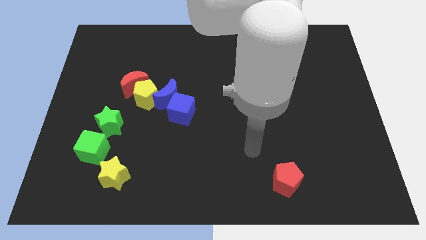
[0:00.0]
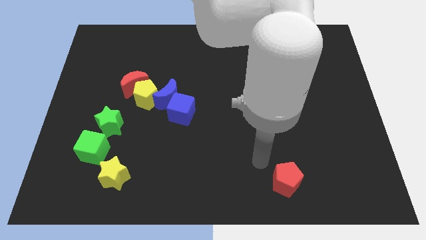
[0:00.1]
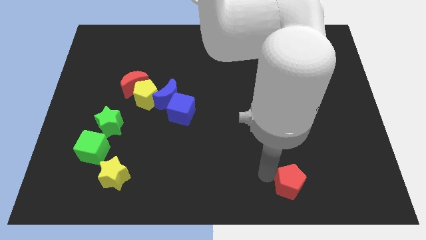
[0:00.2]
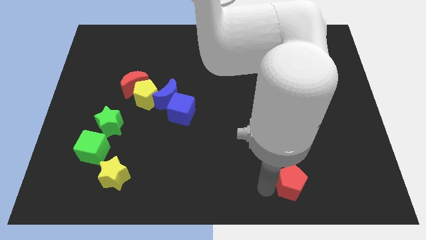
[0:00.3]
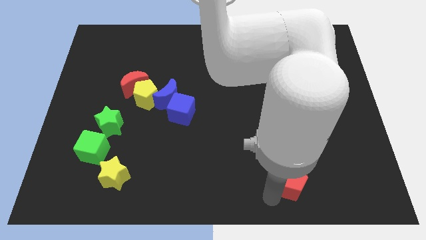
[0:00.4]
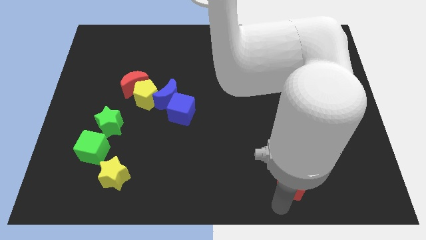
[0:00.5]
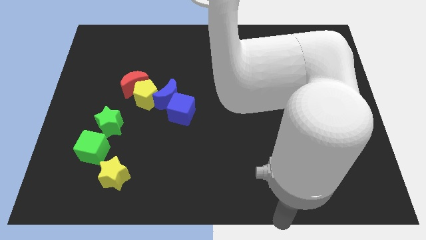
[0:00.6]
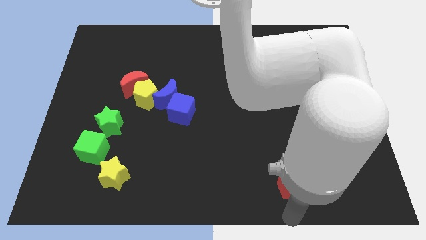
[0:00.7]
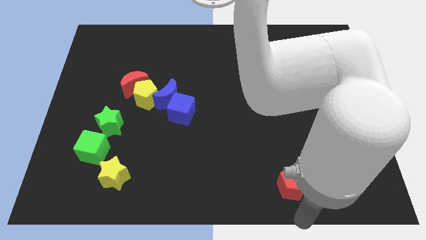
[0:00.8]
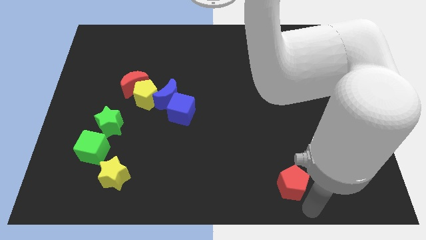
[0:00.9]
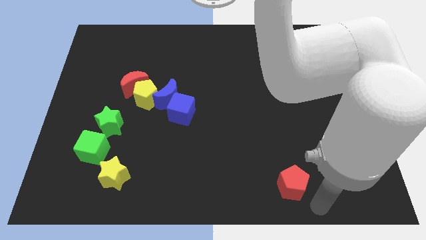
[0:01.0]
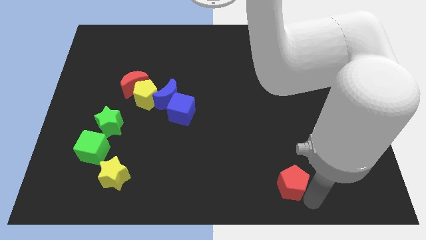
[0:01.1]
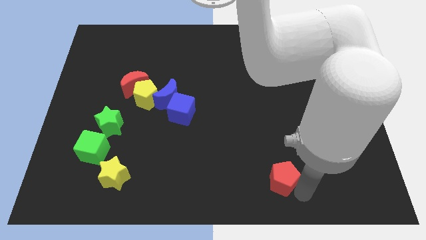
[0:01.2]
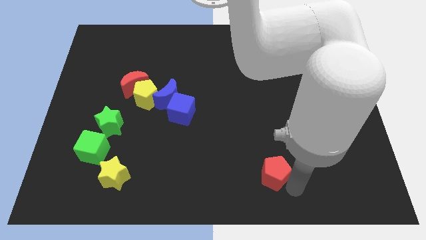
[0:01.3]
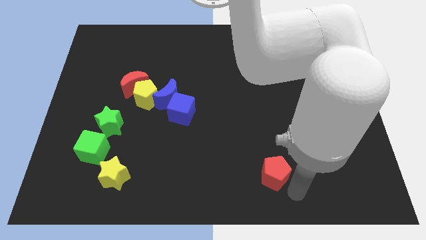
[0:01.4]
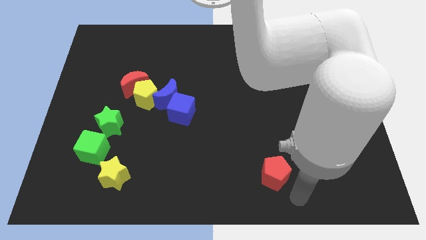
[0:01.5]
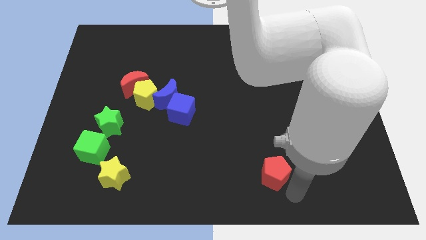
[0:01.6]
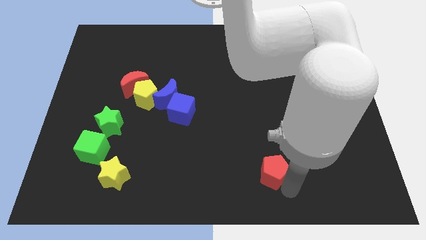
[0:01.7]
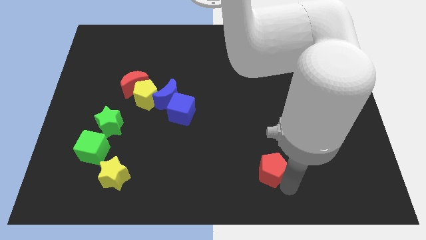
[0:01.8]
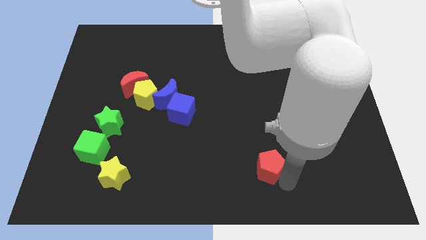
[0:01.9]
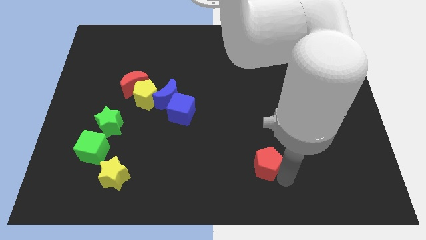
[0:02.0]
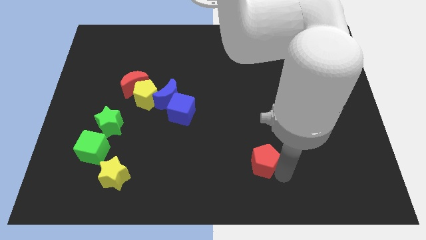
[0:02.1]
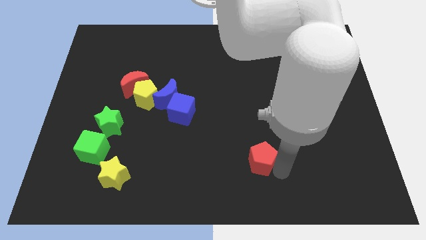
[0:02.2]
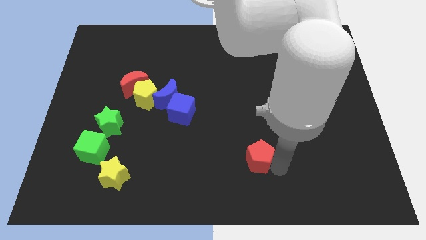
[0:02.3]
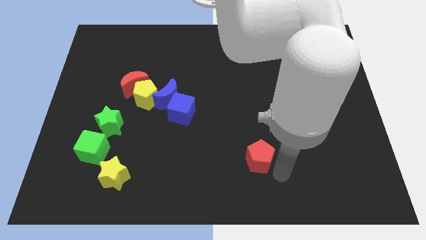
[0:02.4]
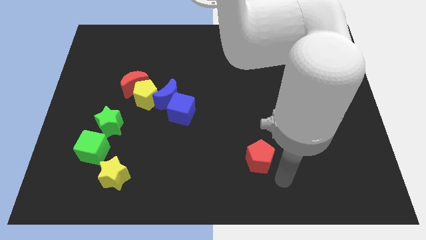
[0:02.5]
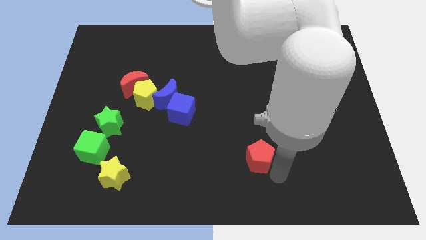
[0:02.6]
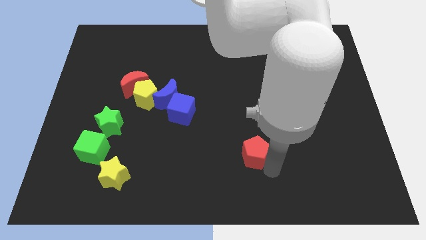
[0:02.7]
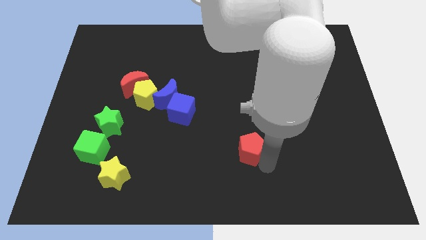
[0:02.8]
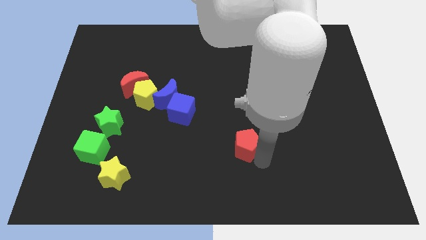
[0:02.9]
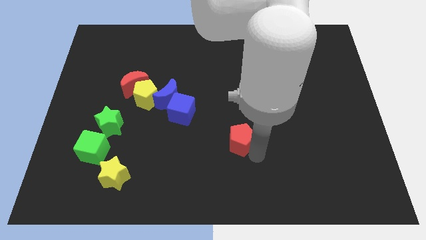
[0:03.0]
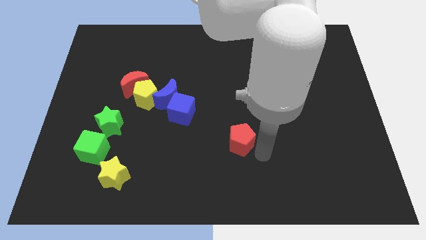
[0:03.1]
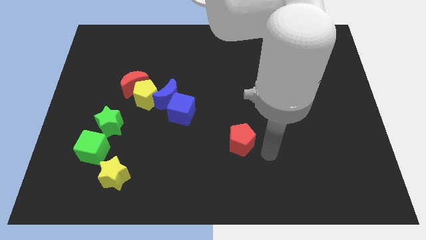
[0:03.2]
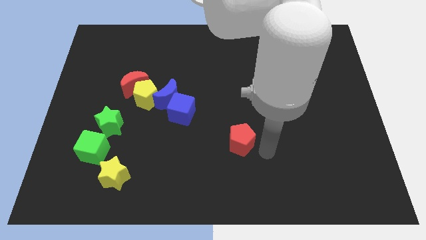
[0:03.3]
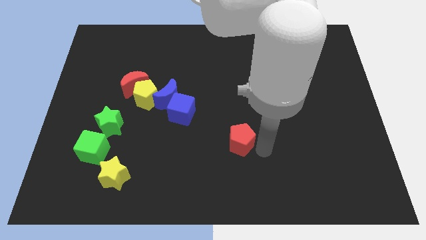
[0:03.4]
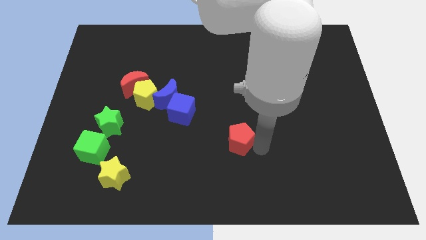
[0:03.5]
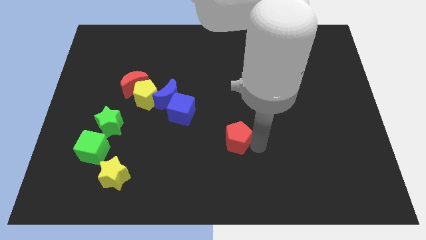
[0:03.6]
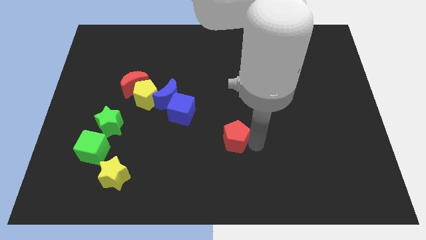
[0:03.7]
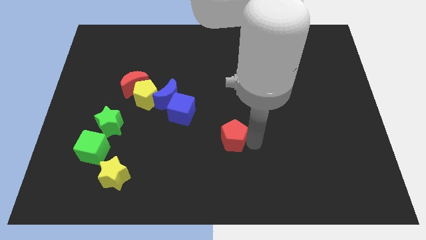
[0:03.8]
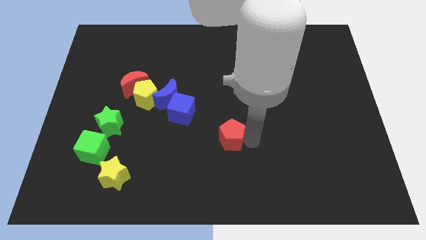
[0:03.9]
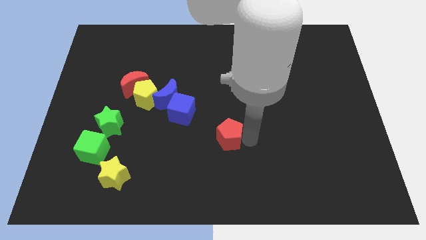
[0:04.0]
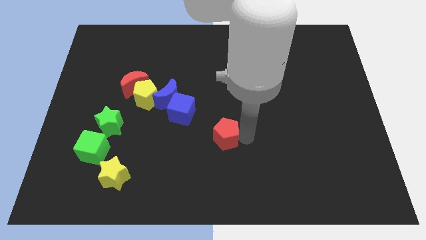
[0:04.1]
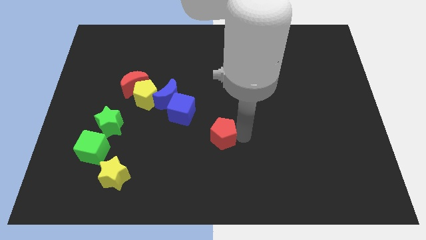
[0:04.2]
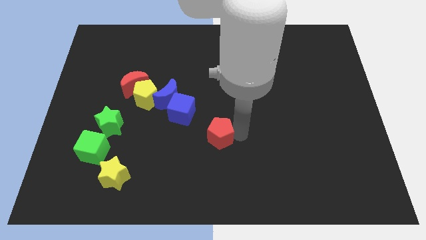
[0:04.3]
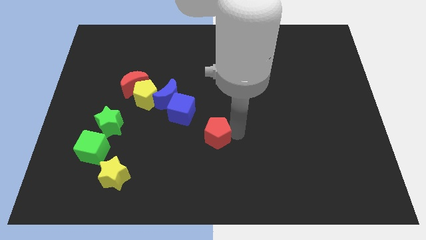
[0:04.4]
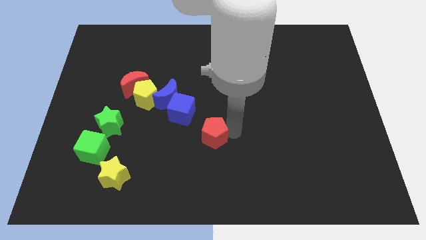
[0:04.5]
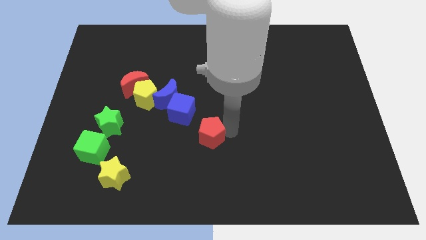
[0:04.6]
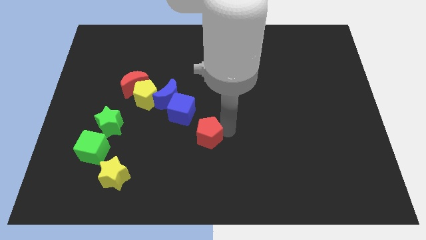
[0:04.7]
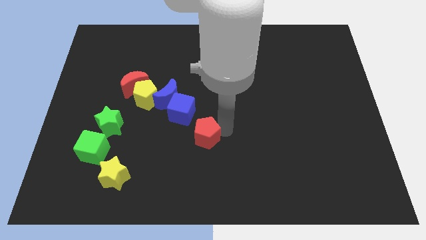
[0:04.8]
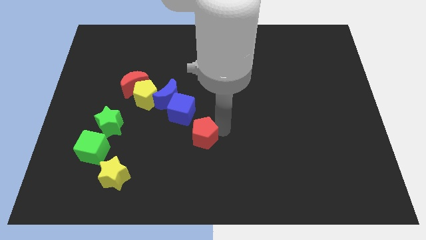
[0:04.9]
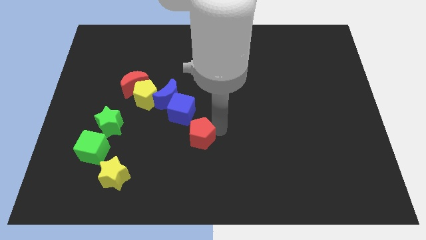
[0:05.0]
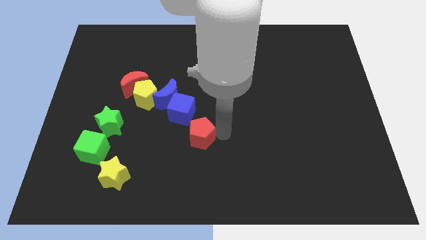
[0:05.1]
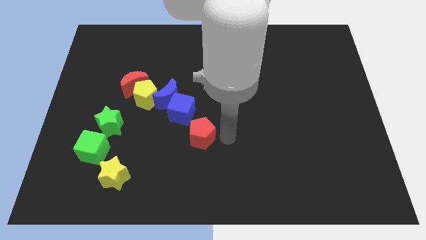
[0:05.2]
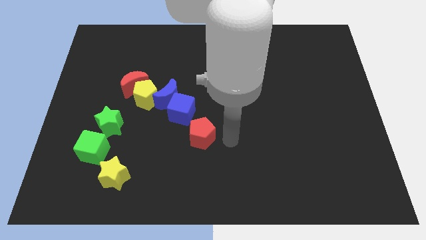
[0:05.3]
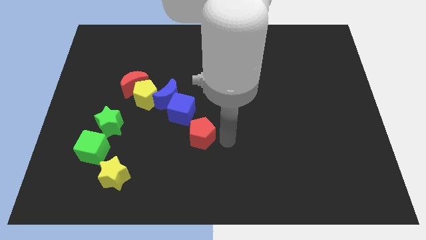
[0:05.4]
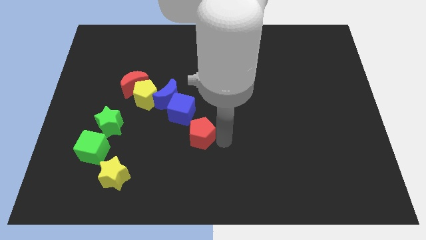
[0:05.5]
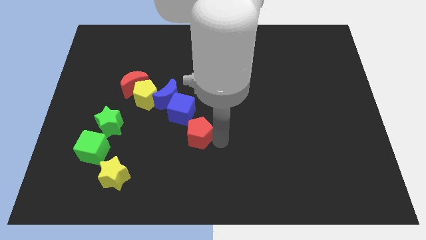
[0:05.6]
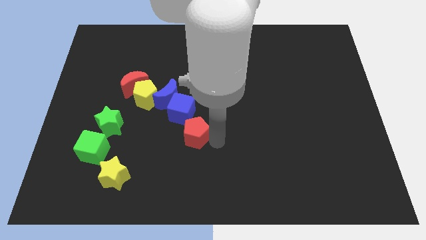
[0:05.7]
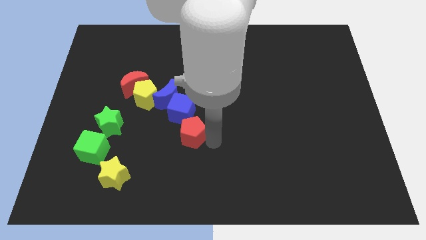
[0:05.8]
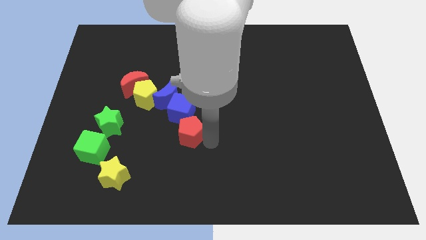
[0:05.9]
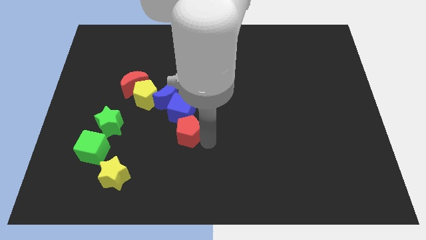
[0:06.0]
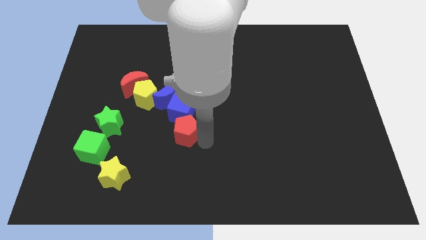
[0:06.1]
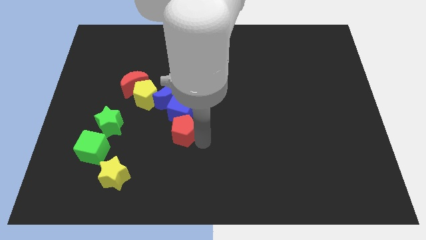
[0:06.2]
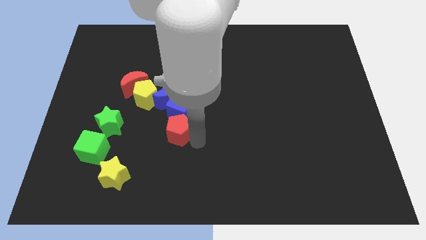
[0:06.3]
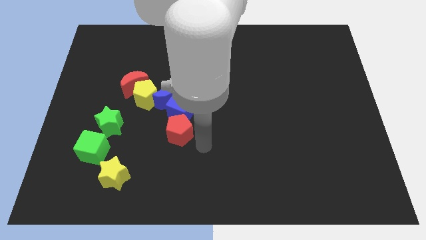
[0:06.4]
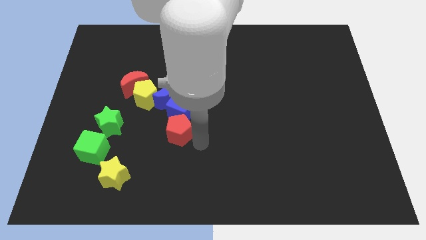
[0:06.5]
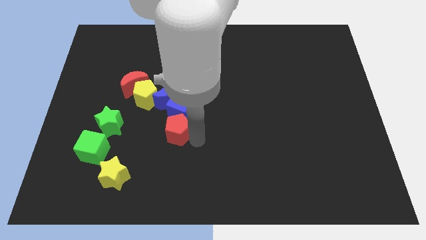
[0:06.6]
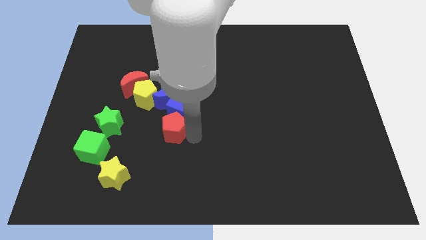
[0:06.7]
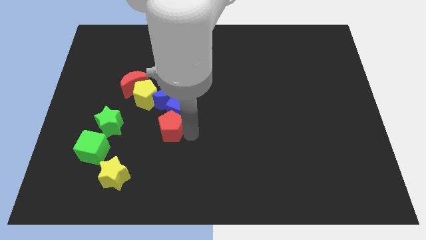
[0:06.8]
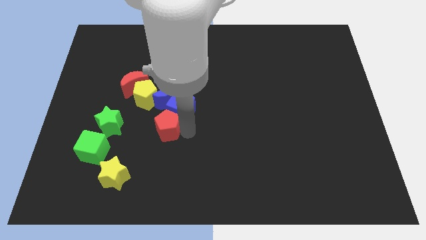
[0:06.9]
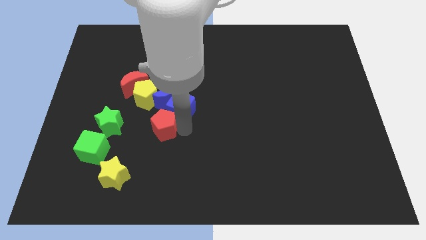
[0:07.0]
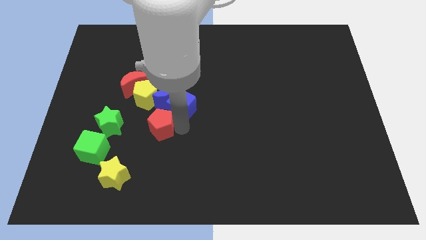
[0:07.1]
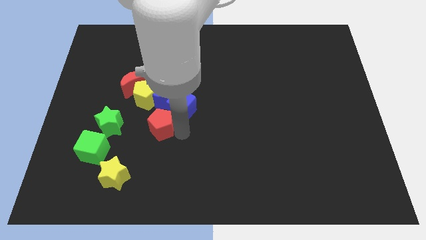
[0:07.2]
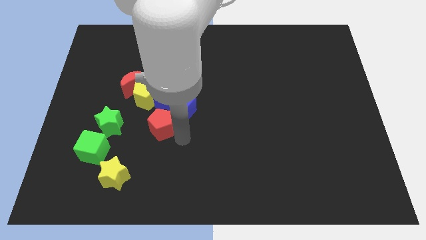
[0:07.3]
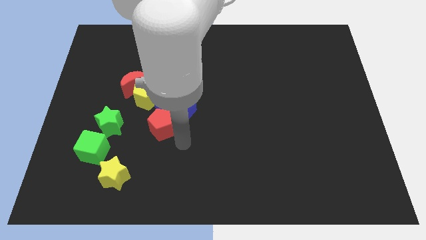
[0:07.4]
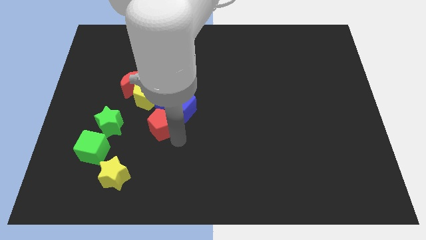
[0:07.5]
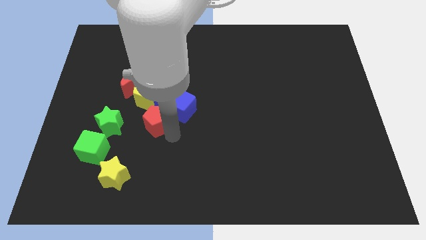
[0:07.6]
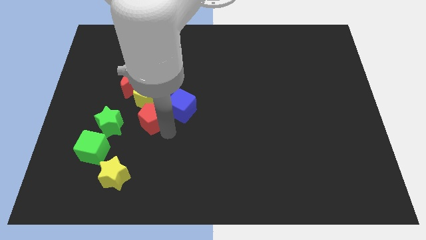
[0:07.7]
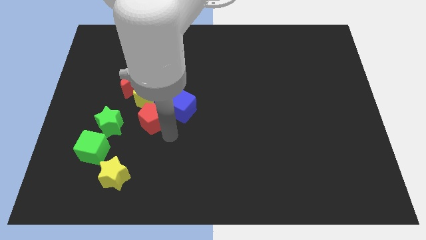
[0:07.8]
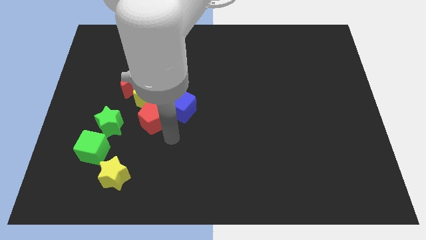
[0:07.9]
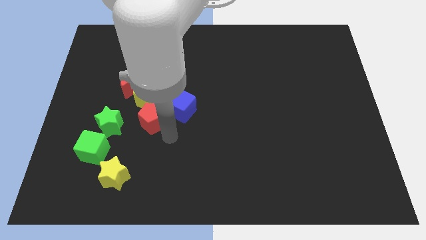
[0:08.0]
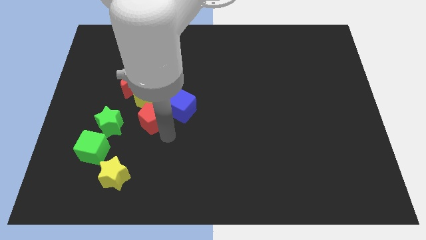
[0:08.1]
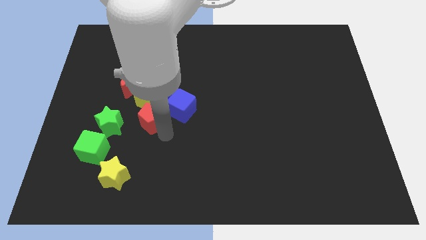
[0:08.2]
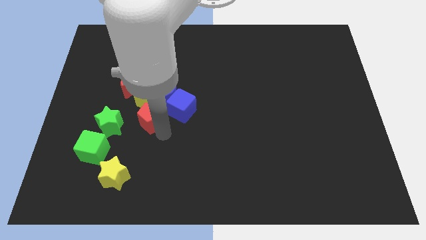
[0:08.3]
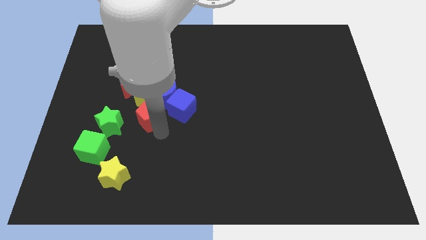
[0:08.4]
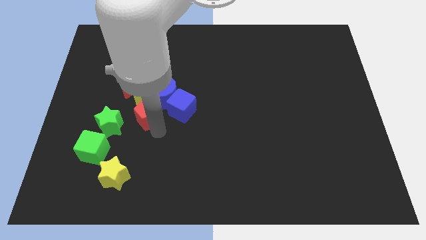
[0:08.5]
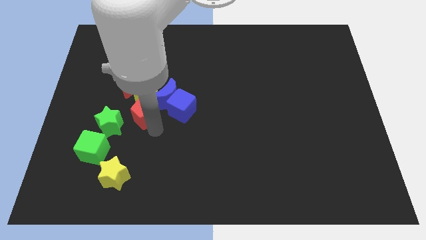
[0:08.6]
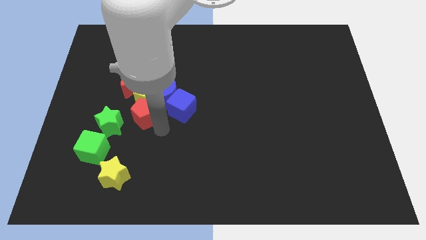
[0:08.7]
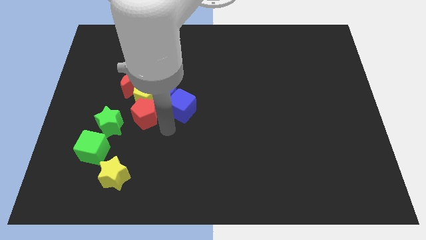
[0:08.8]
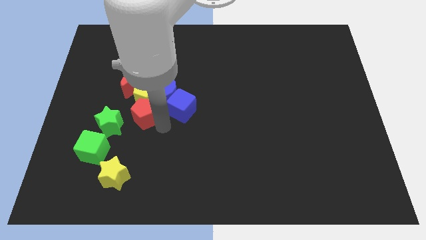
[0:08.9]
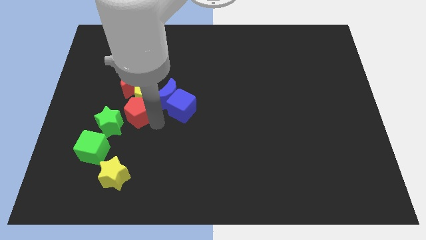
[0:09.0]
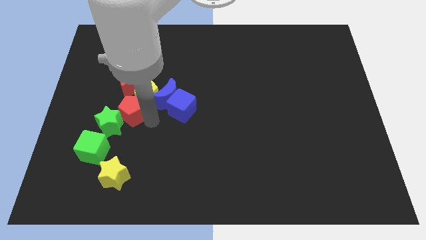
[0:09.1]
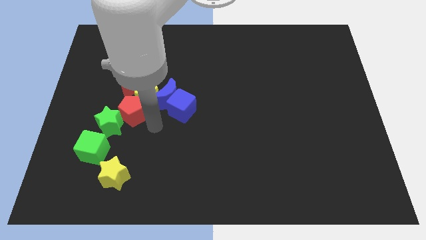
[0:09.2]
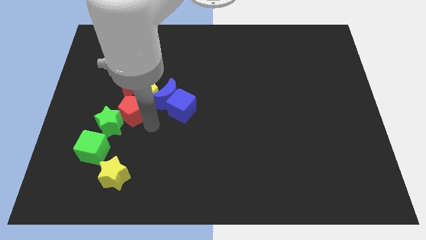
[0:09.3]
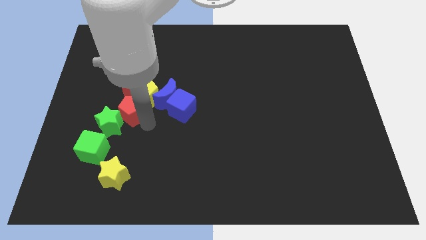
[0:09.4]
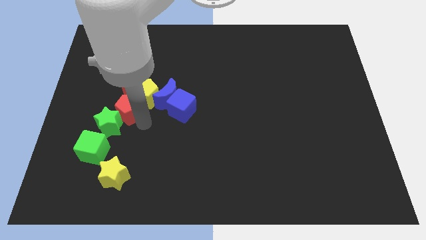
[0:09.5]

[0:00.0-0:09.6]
push the red pentagon to the left of the yellow pentagon
